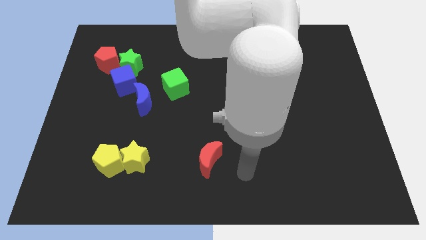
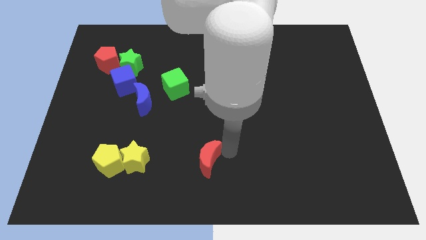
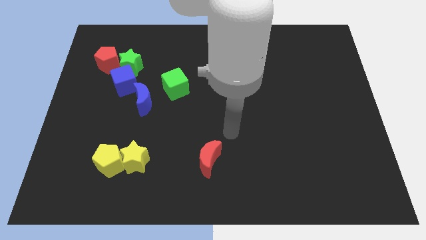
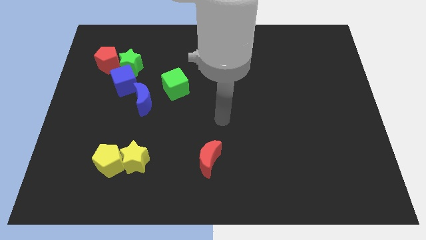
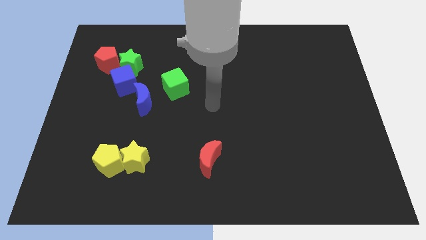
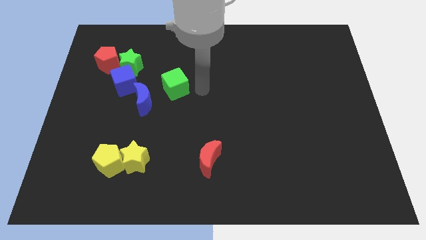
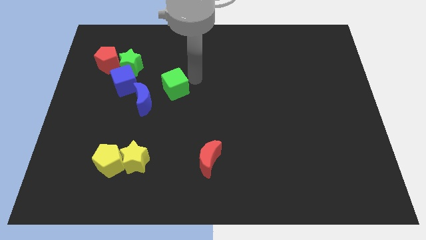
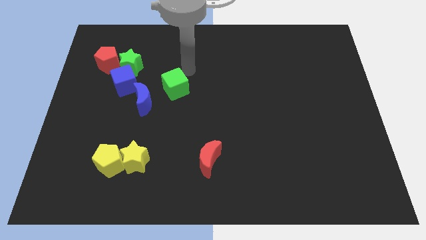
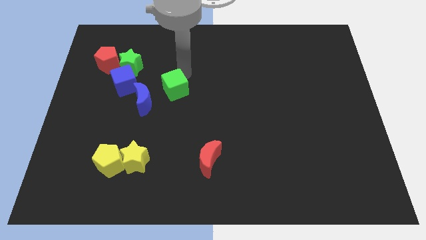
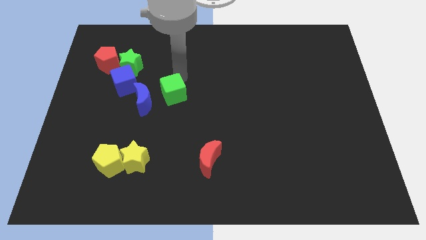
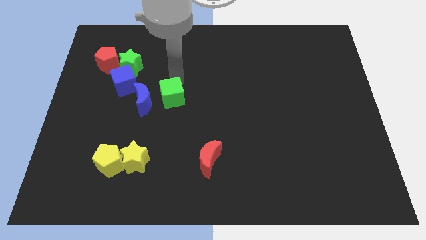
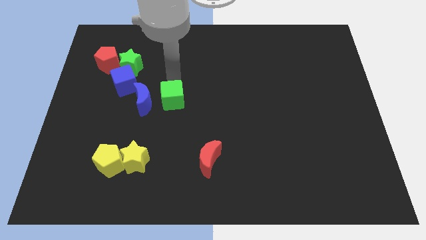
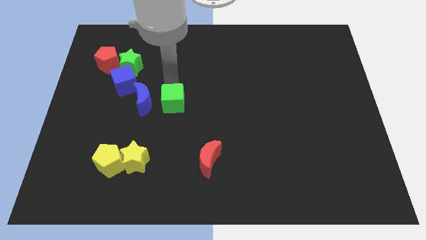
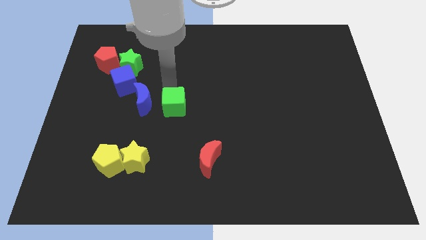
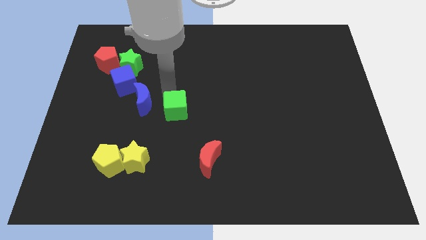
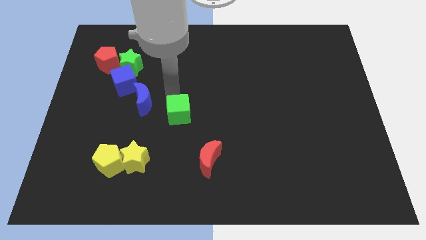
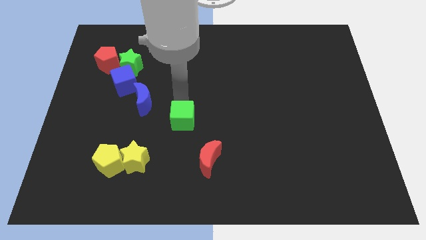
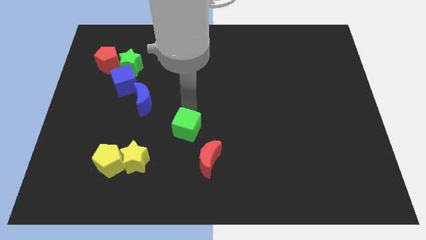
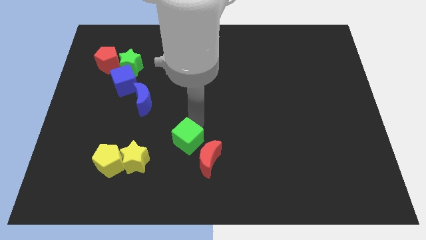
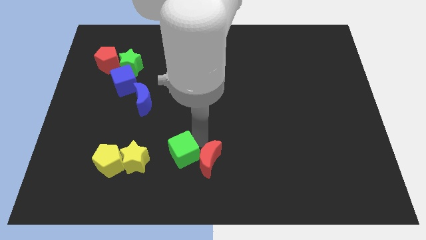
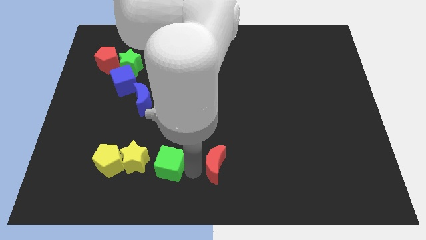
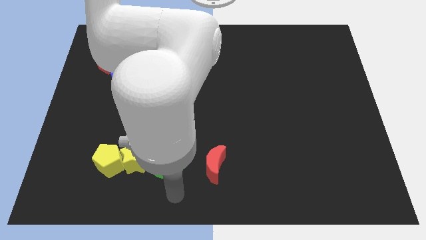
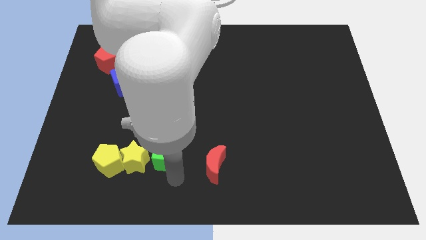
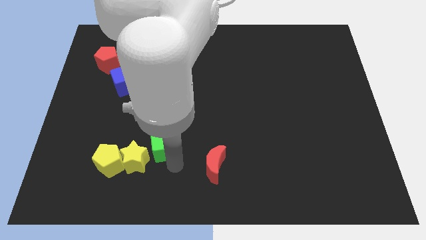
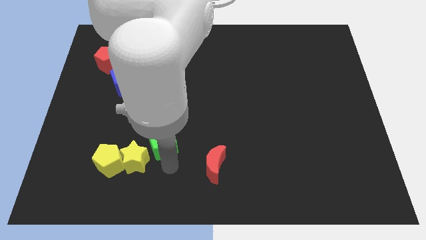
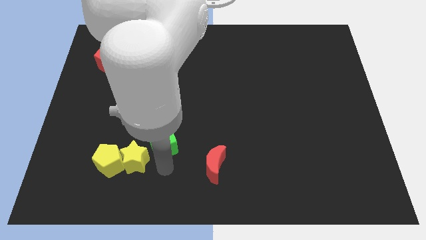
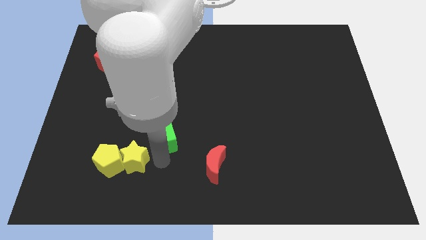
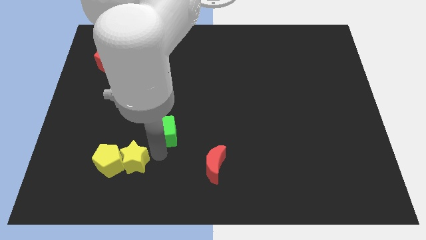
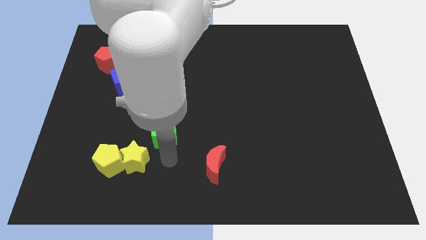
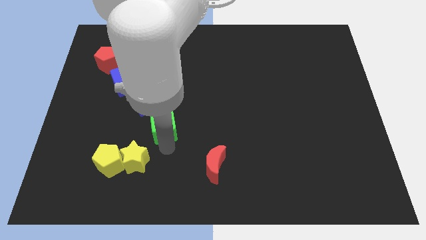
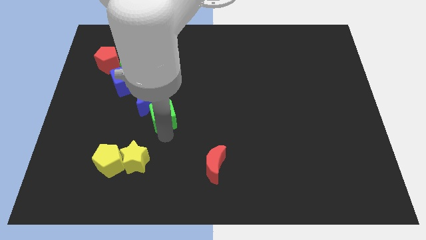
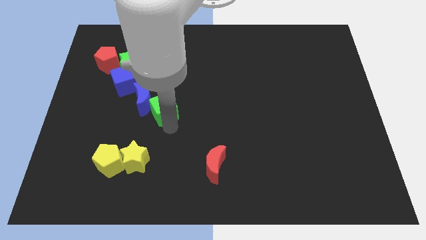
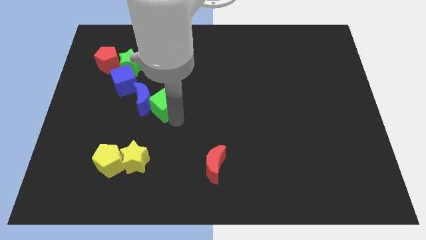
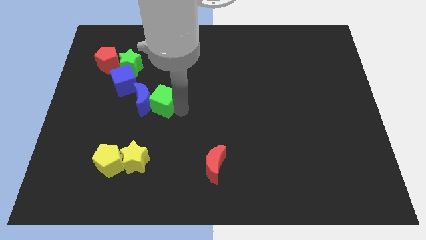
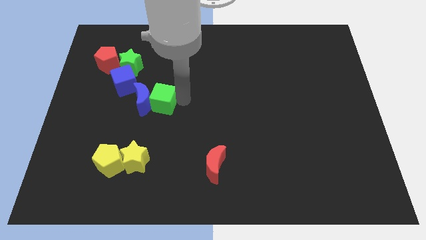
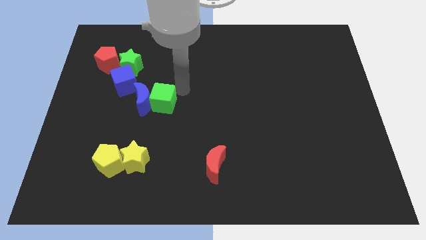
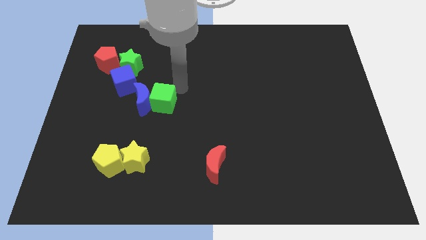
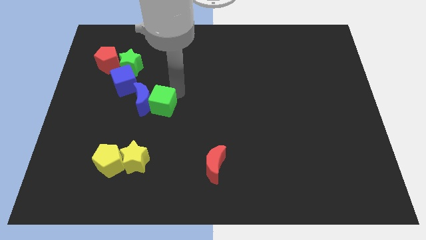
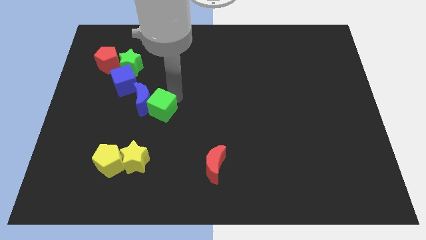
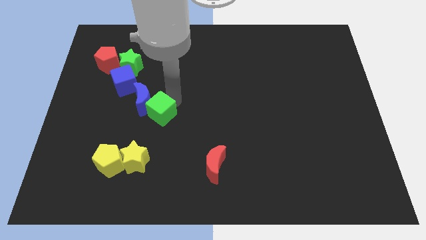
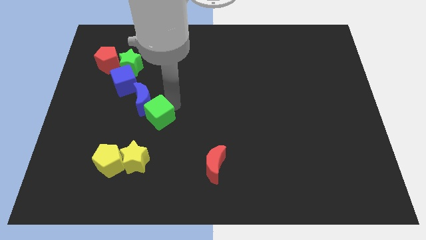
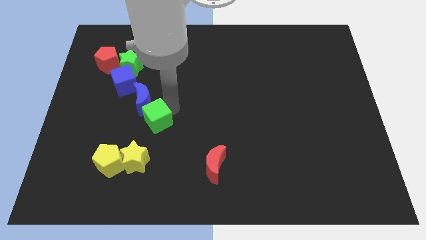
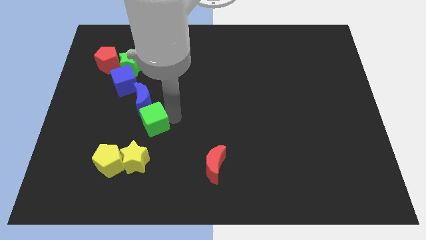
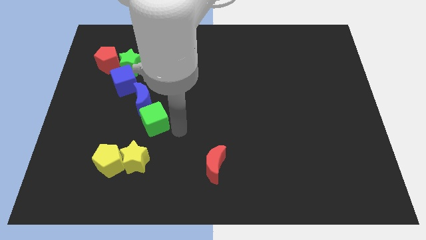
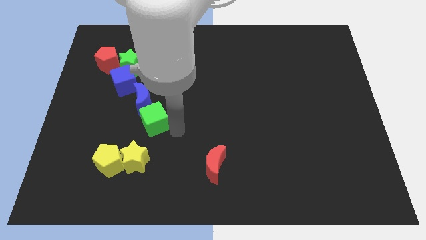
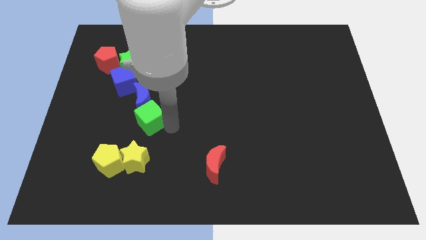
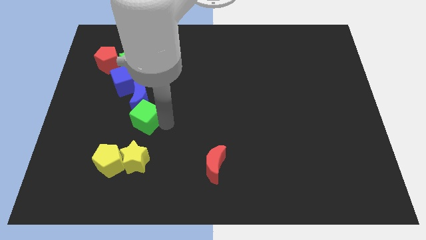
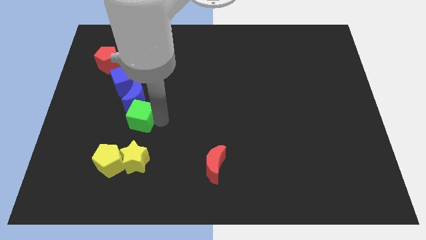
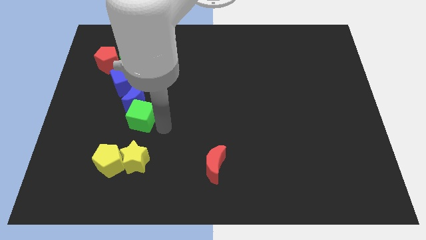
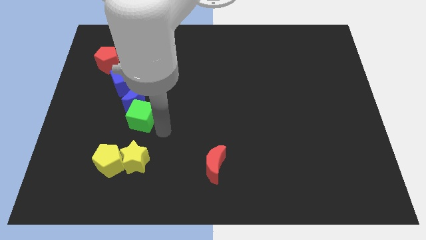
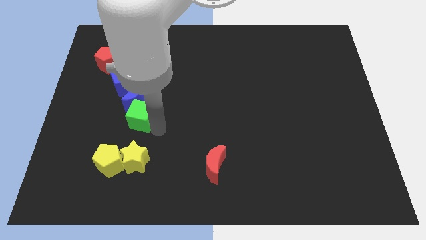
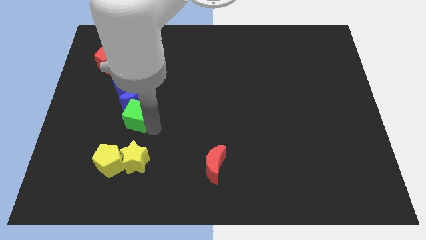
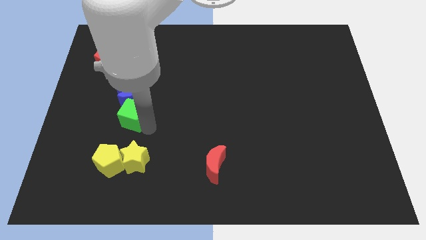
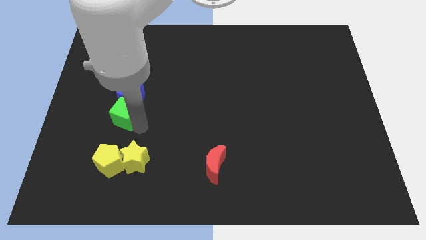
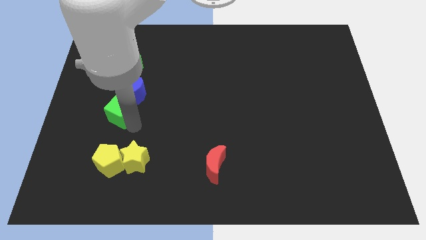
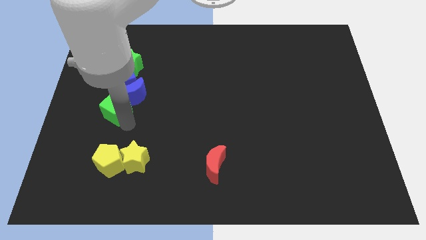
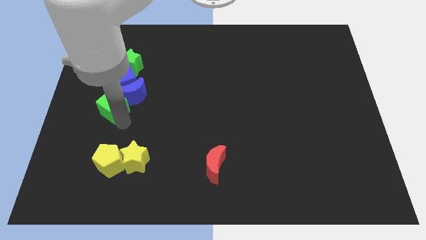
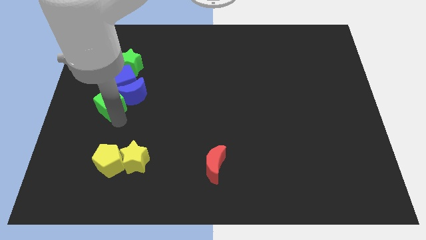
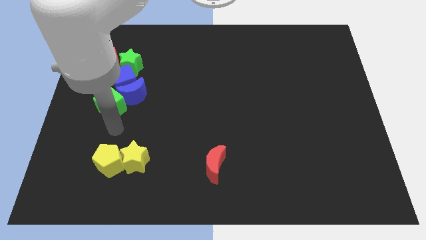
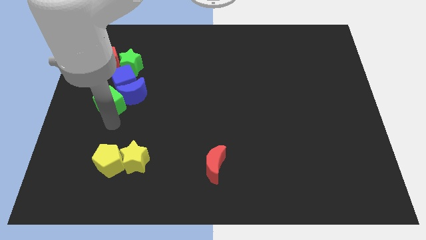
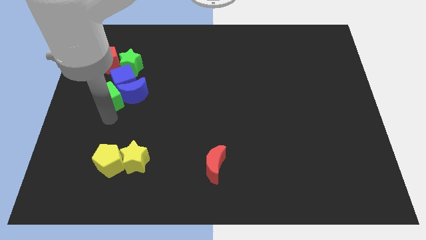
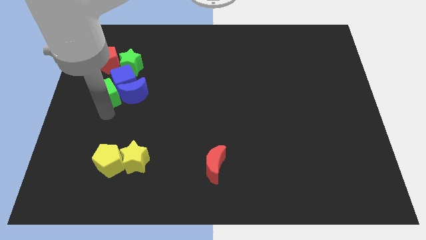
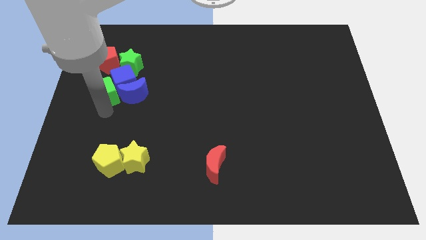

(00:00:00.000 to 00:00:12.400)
put the green cube to the bottom left side of the green star
